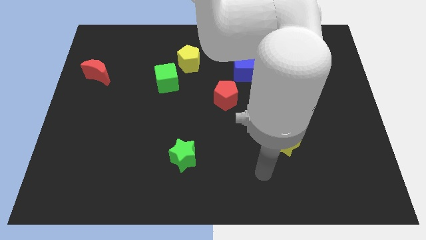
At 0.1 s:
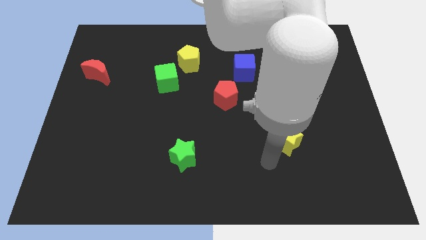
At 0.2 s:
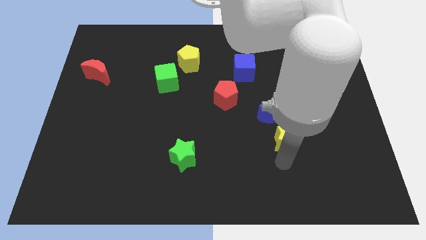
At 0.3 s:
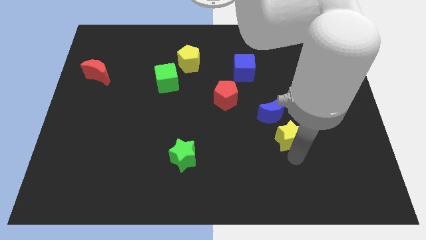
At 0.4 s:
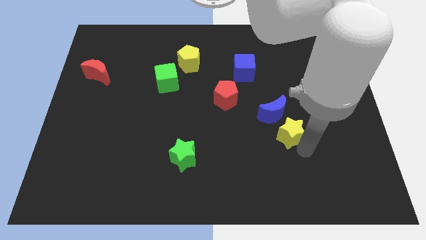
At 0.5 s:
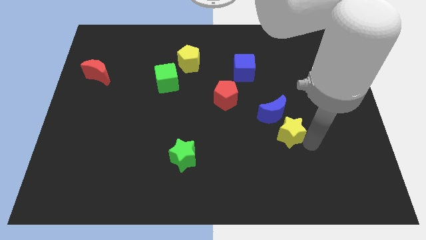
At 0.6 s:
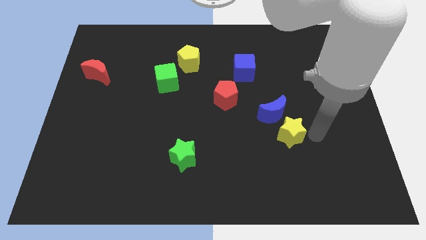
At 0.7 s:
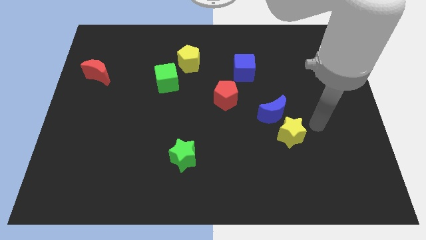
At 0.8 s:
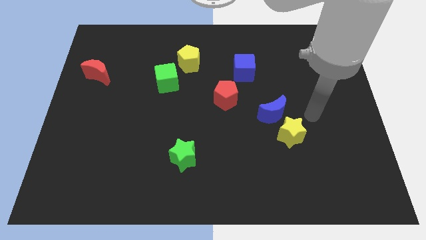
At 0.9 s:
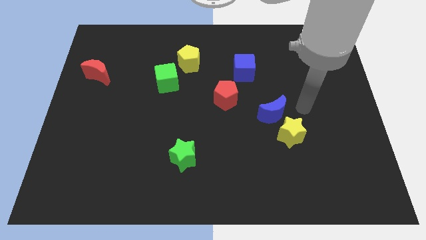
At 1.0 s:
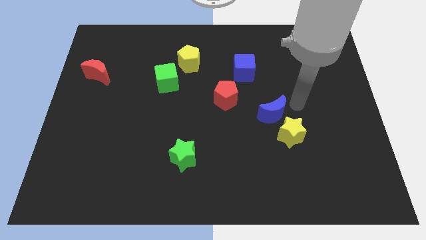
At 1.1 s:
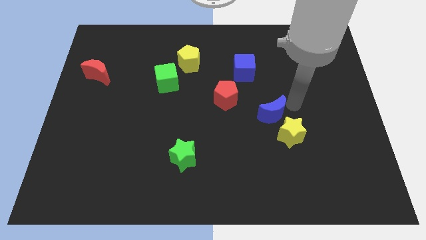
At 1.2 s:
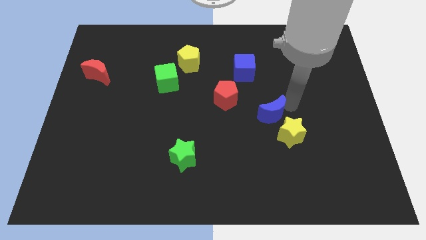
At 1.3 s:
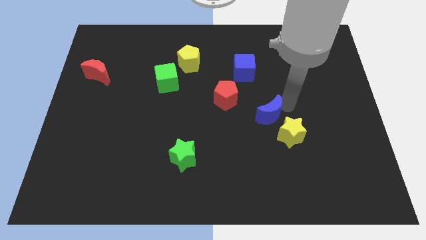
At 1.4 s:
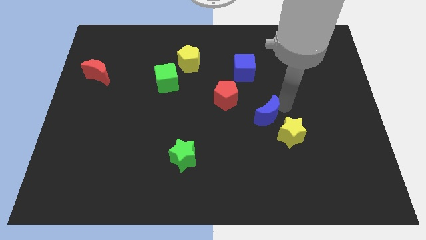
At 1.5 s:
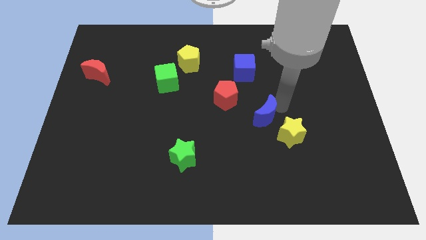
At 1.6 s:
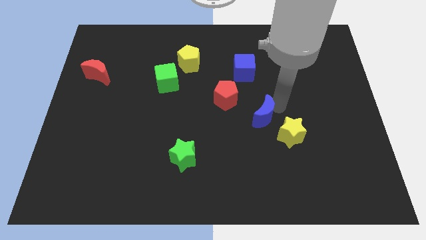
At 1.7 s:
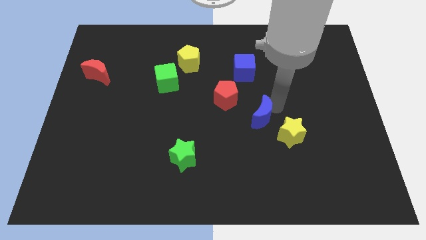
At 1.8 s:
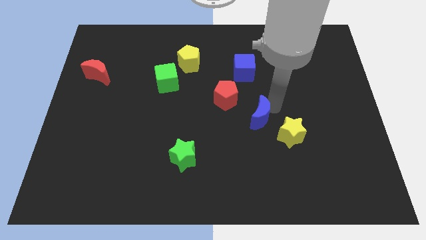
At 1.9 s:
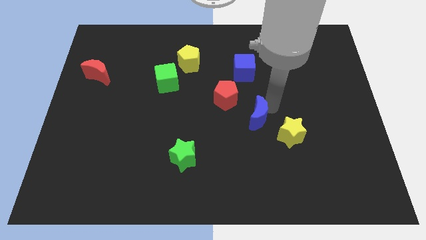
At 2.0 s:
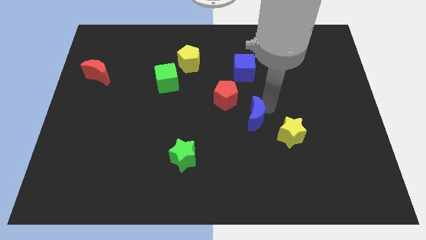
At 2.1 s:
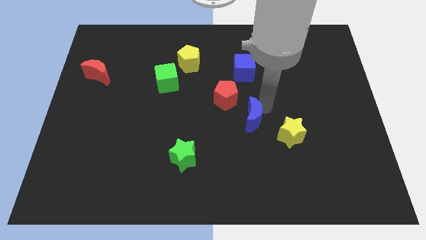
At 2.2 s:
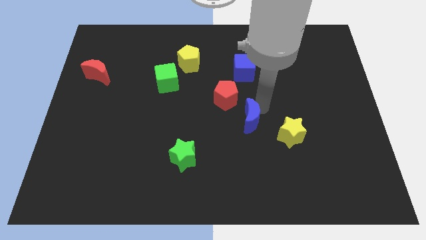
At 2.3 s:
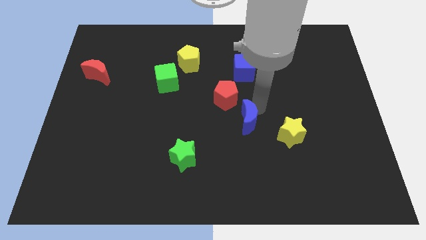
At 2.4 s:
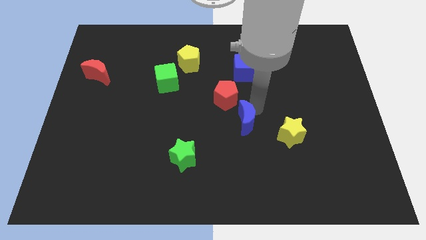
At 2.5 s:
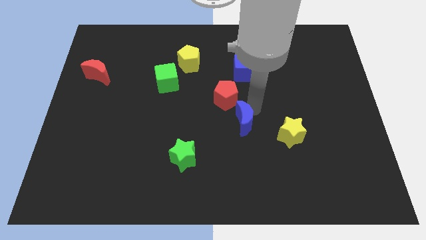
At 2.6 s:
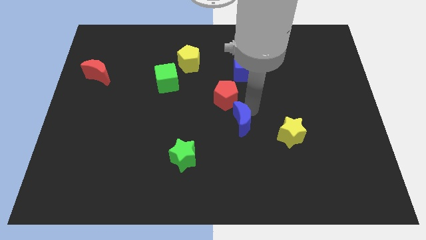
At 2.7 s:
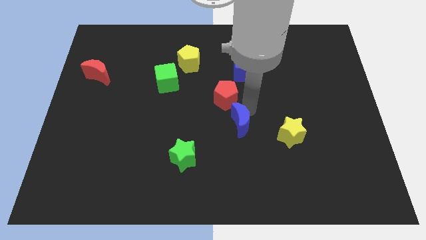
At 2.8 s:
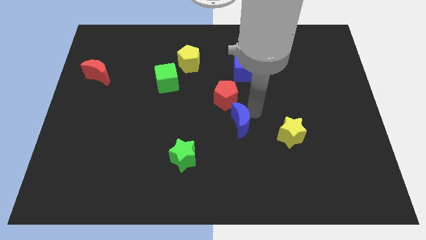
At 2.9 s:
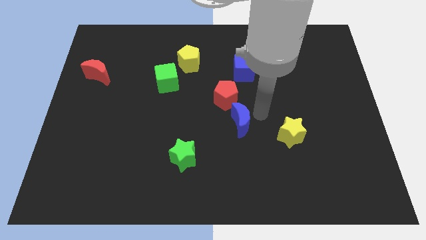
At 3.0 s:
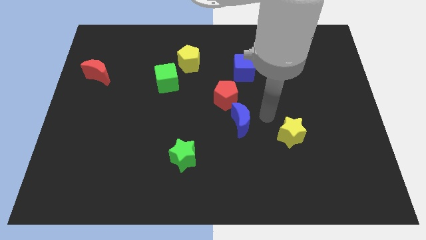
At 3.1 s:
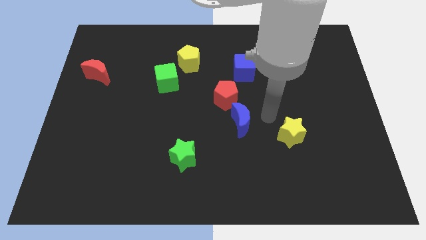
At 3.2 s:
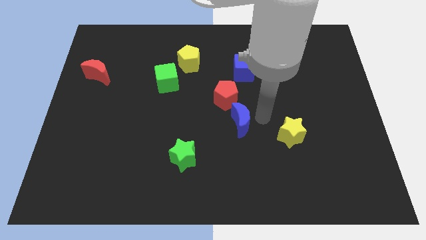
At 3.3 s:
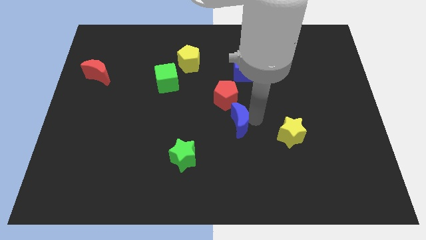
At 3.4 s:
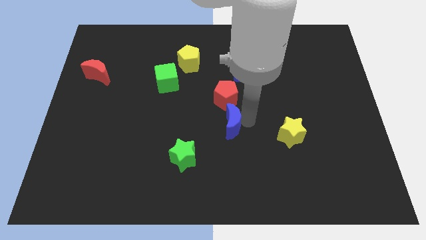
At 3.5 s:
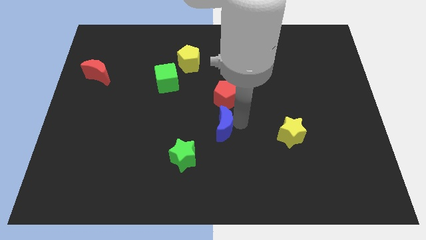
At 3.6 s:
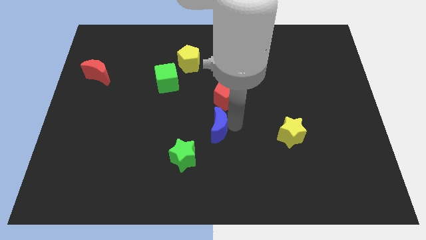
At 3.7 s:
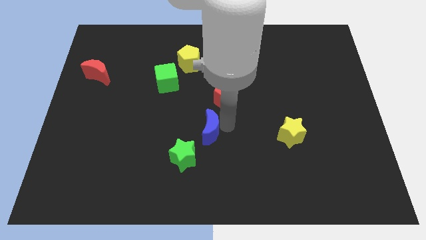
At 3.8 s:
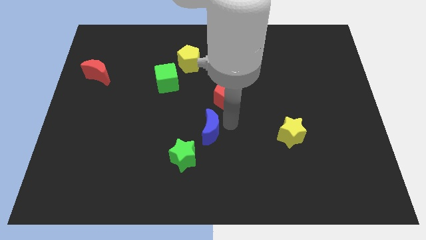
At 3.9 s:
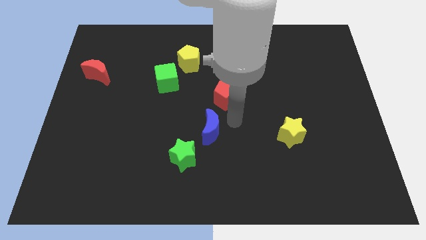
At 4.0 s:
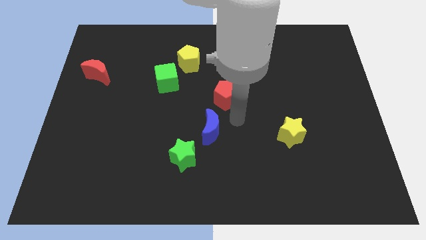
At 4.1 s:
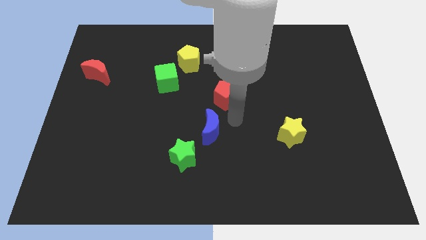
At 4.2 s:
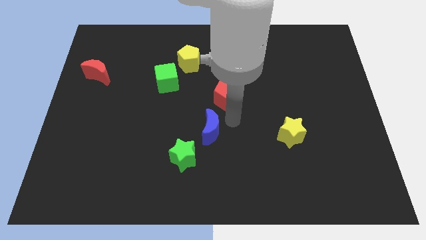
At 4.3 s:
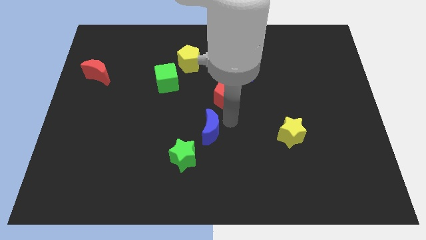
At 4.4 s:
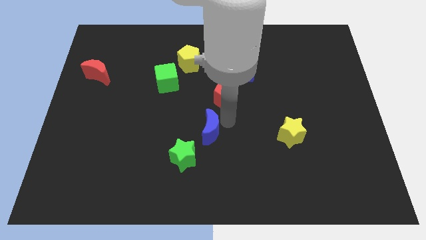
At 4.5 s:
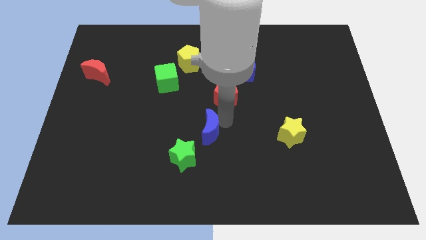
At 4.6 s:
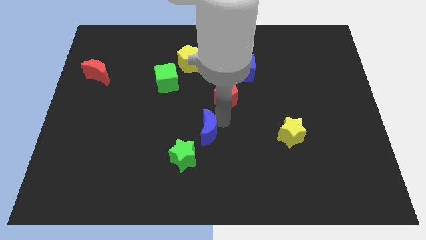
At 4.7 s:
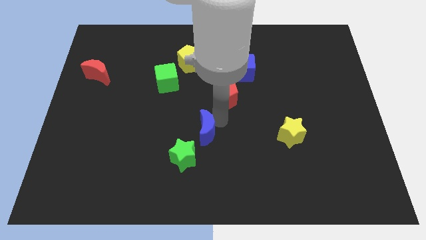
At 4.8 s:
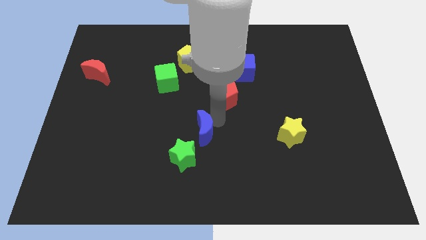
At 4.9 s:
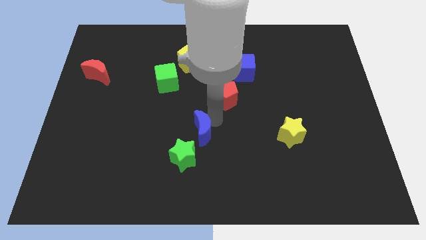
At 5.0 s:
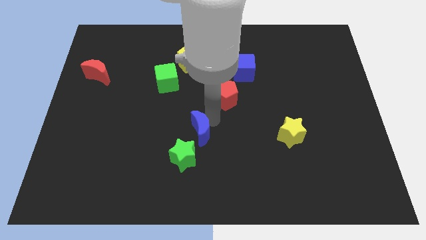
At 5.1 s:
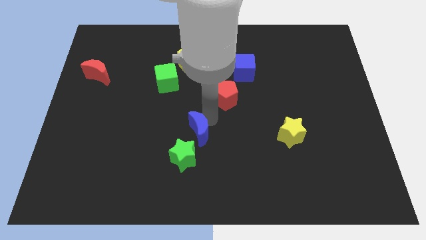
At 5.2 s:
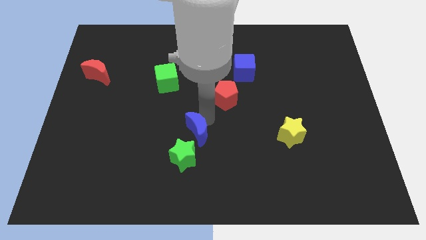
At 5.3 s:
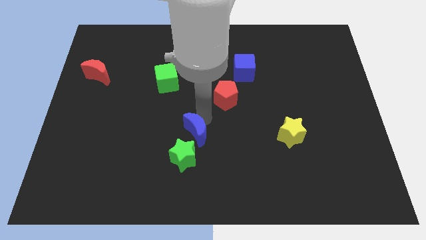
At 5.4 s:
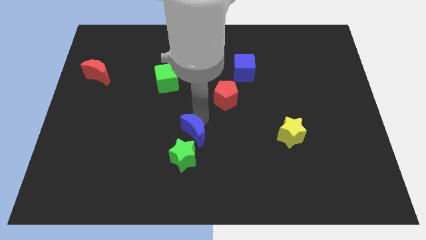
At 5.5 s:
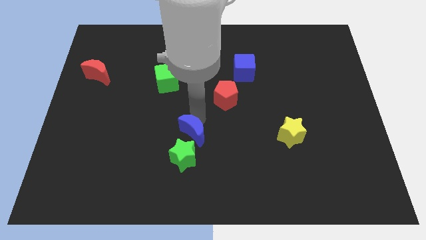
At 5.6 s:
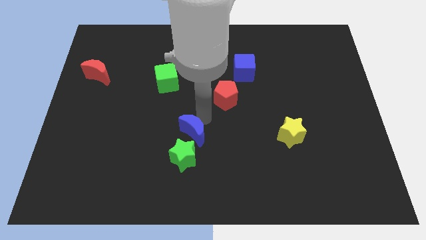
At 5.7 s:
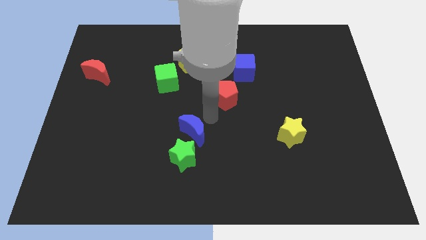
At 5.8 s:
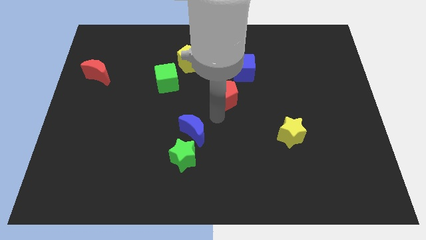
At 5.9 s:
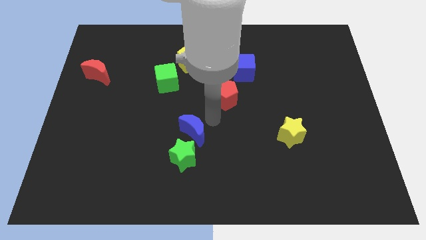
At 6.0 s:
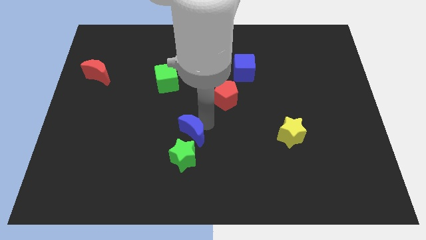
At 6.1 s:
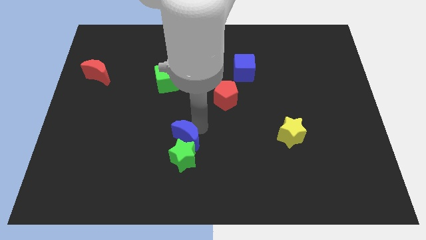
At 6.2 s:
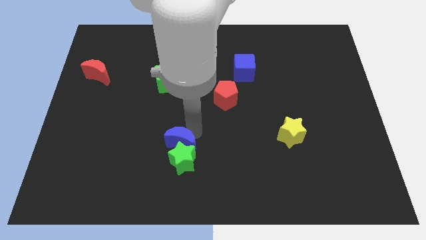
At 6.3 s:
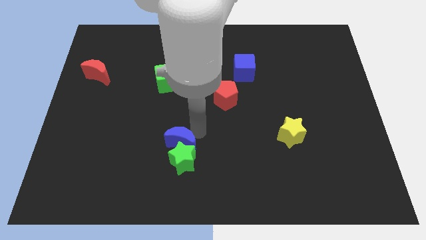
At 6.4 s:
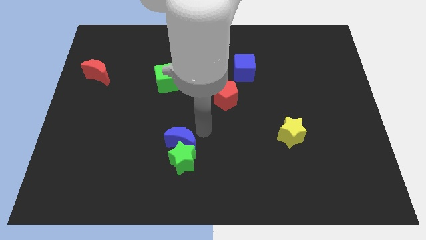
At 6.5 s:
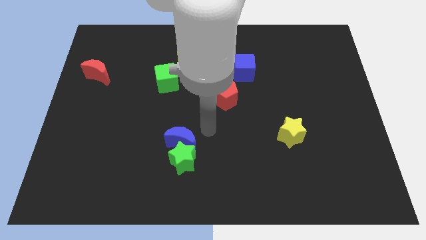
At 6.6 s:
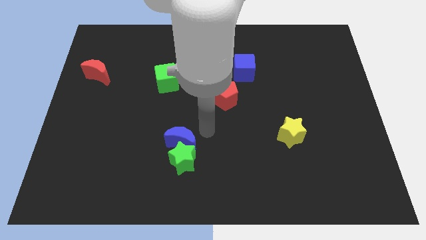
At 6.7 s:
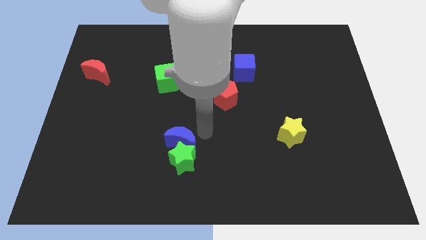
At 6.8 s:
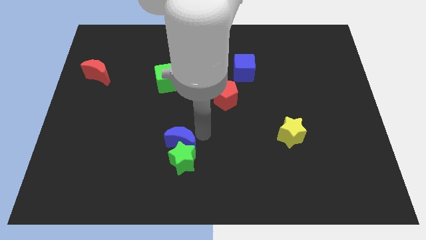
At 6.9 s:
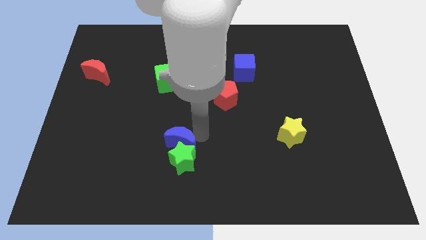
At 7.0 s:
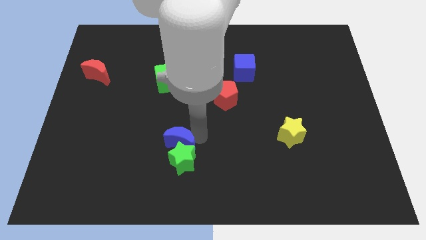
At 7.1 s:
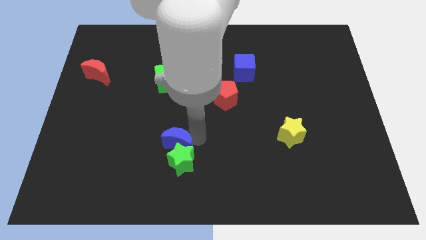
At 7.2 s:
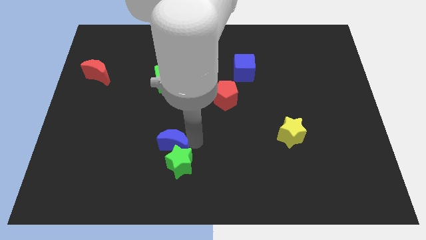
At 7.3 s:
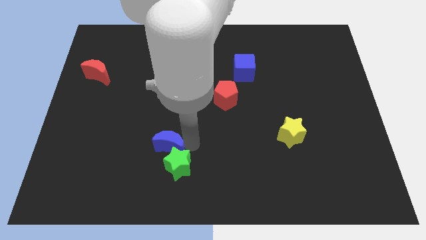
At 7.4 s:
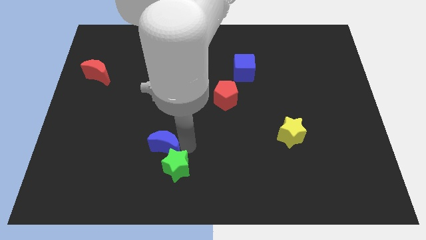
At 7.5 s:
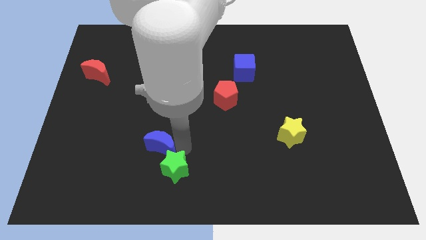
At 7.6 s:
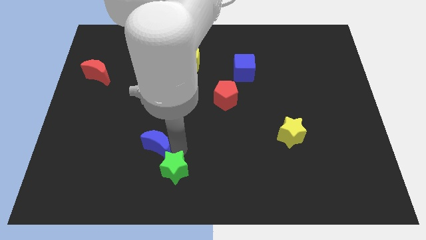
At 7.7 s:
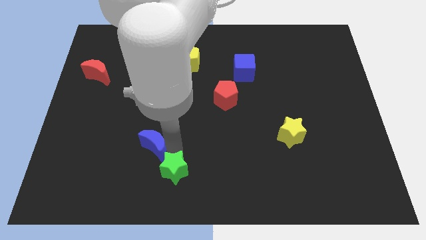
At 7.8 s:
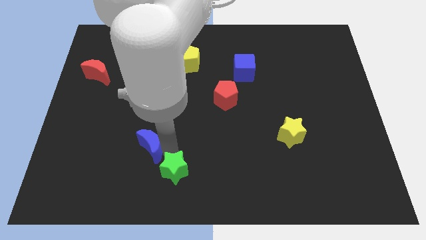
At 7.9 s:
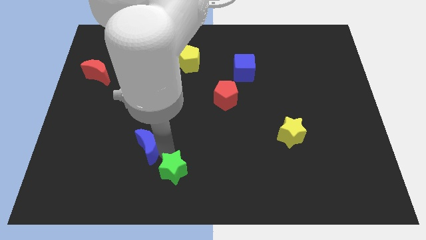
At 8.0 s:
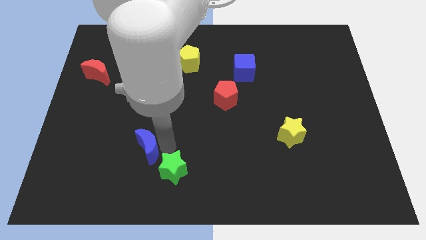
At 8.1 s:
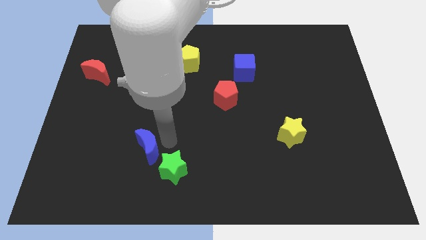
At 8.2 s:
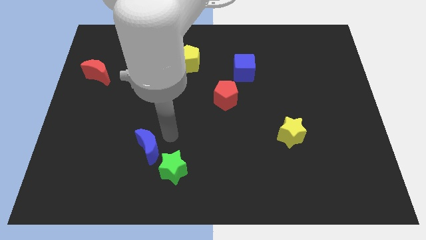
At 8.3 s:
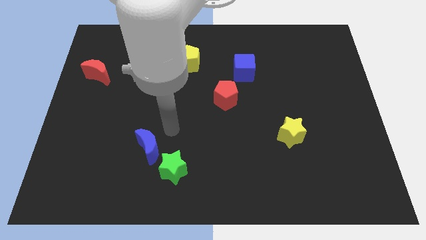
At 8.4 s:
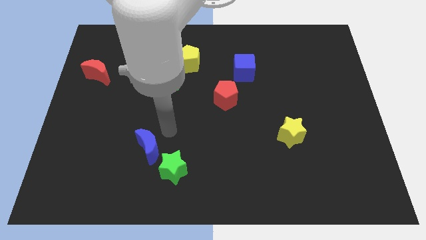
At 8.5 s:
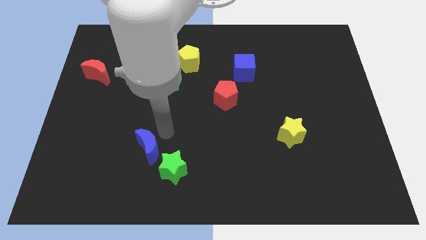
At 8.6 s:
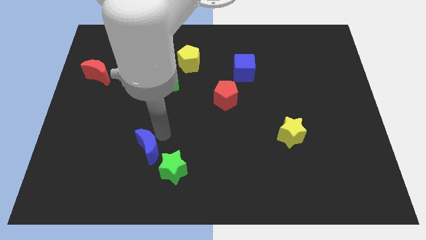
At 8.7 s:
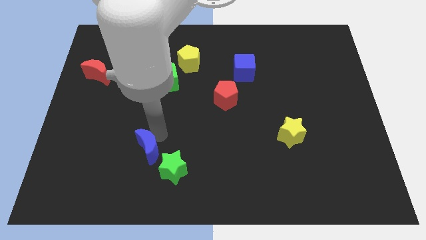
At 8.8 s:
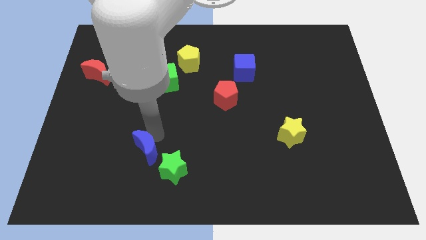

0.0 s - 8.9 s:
slide the blue moon to the left side of the green star
